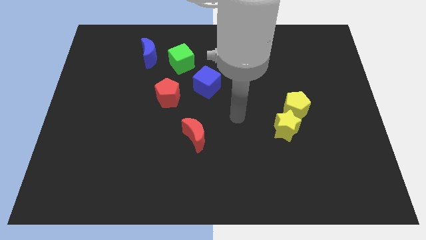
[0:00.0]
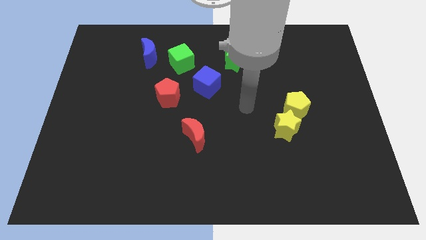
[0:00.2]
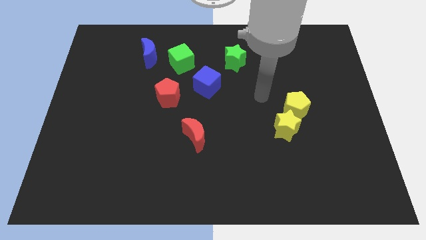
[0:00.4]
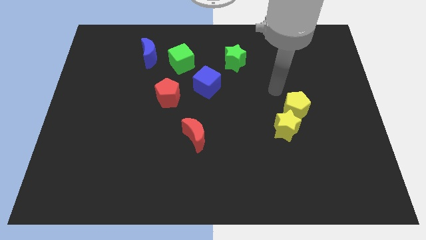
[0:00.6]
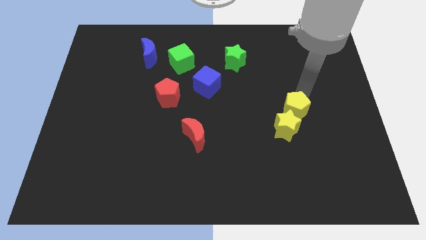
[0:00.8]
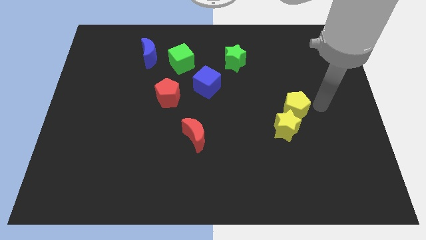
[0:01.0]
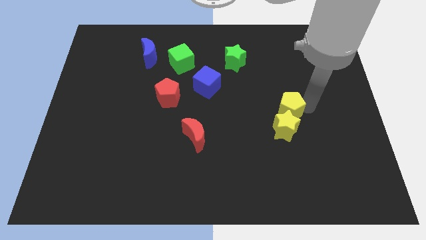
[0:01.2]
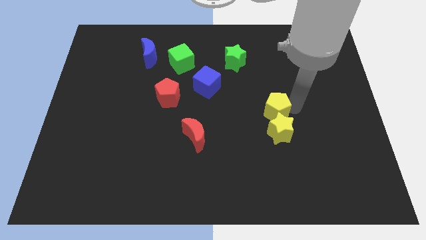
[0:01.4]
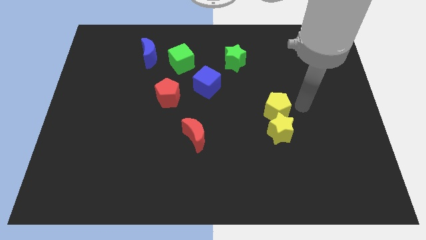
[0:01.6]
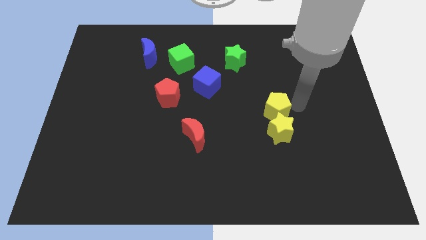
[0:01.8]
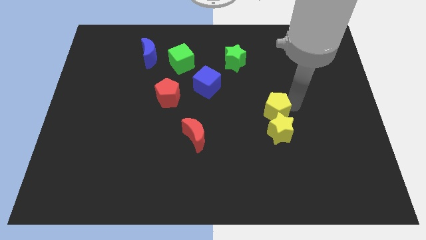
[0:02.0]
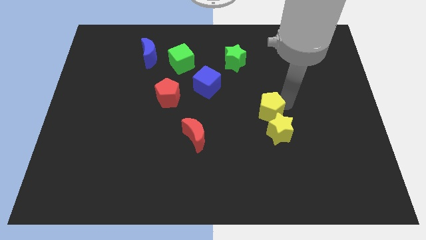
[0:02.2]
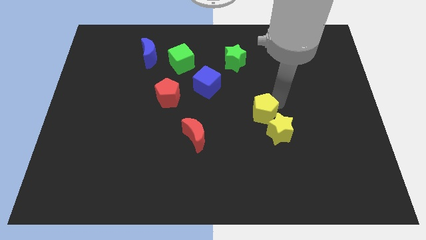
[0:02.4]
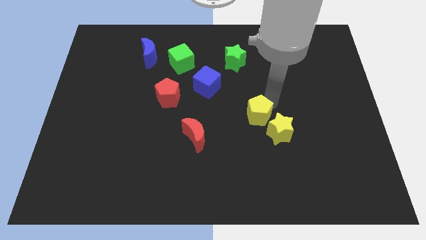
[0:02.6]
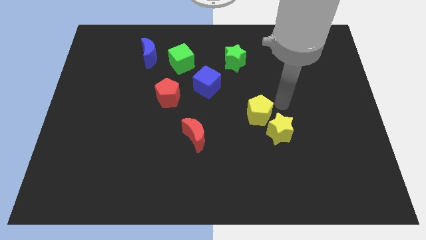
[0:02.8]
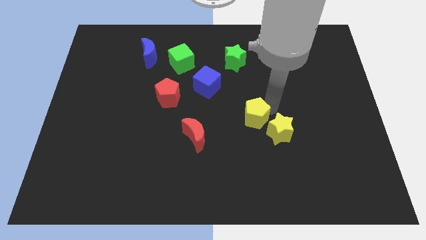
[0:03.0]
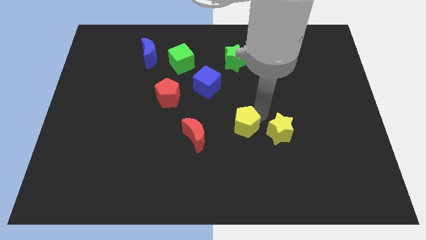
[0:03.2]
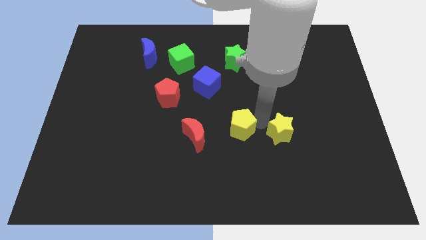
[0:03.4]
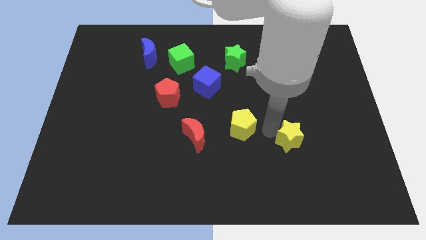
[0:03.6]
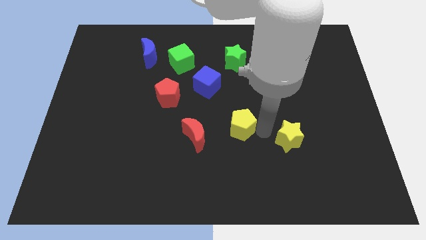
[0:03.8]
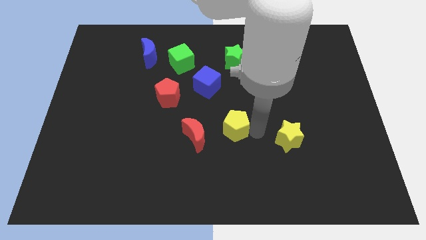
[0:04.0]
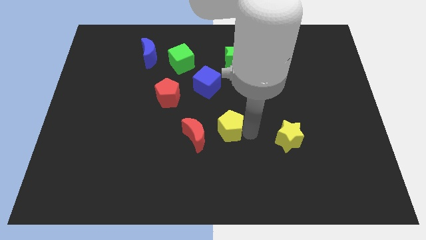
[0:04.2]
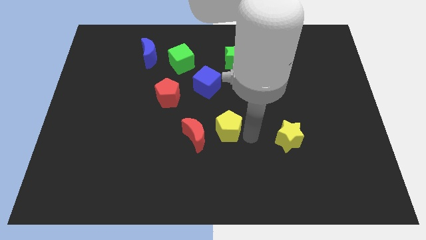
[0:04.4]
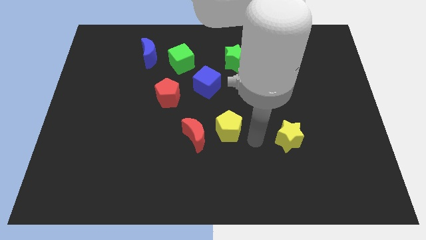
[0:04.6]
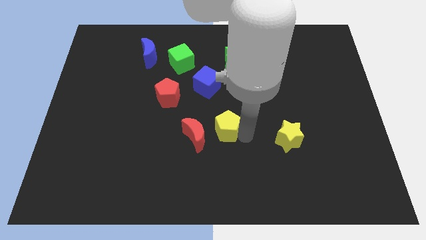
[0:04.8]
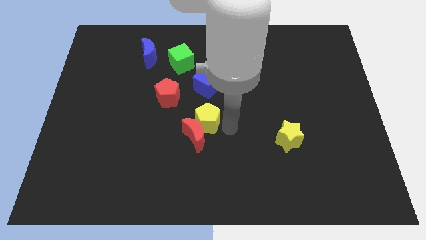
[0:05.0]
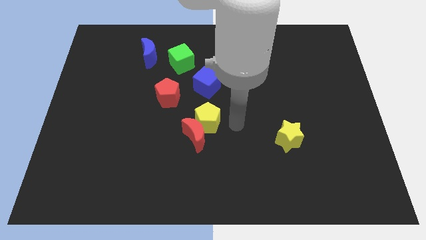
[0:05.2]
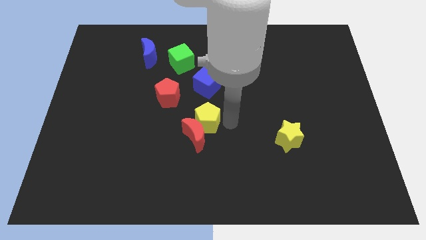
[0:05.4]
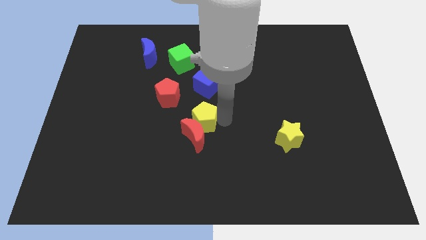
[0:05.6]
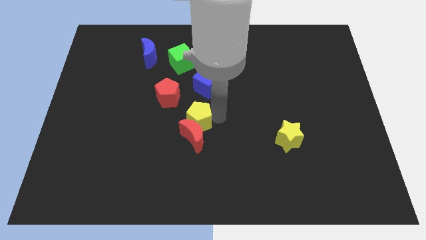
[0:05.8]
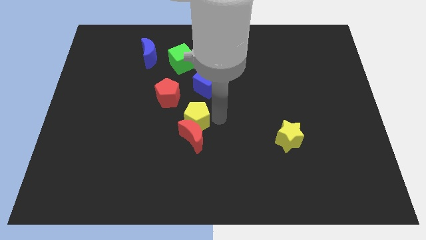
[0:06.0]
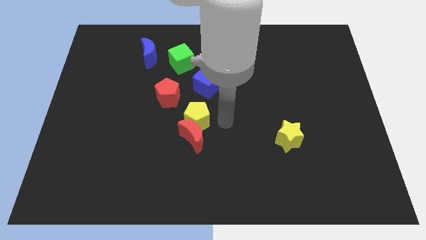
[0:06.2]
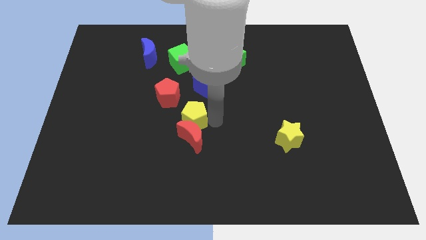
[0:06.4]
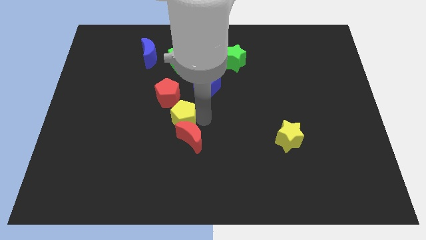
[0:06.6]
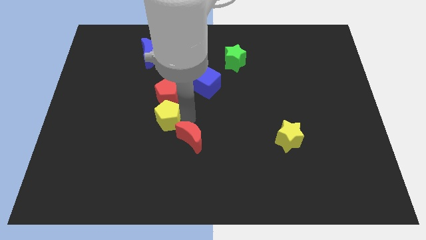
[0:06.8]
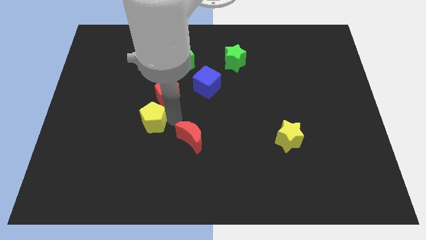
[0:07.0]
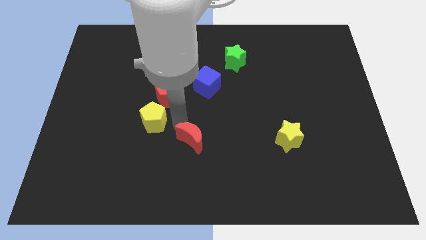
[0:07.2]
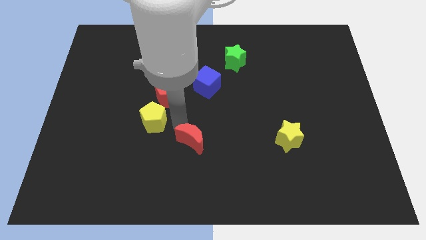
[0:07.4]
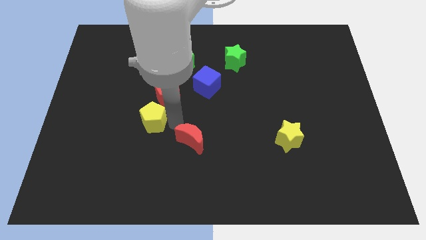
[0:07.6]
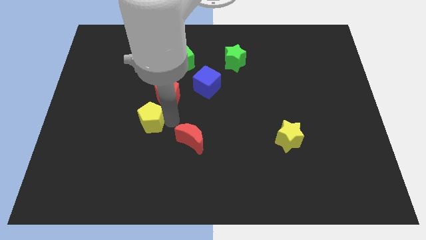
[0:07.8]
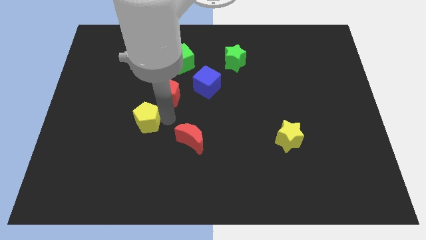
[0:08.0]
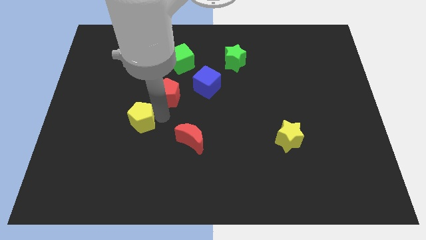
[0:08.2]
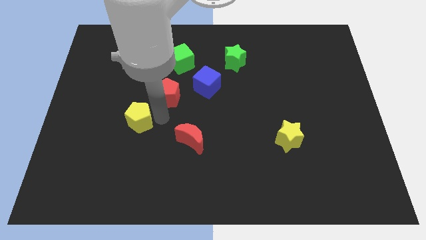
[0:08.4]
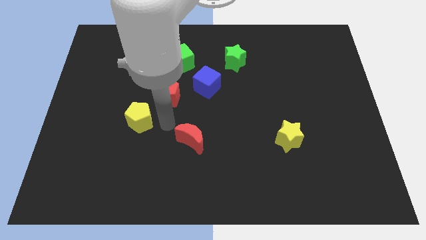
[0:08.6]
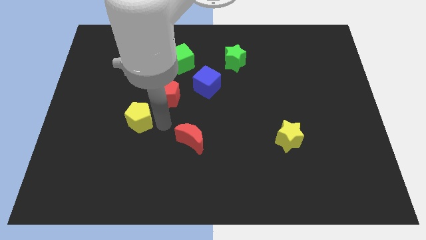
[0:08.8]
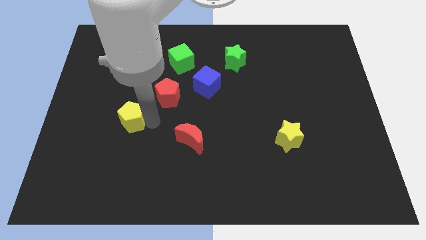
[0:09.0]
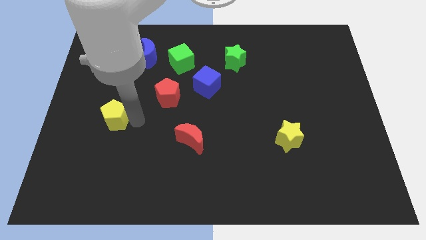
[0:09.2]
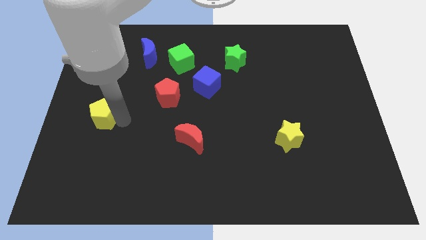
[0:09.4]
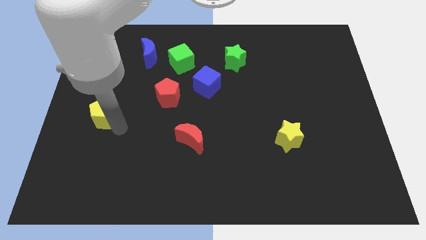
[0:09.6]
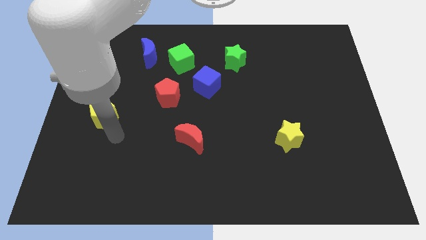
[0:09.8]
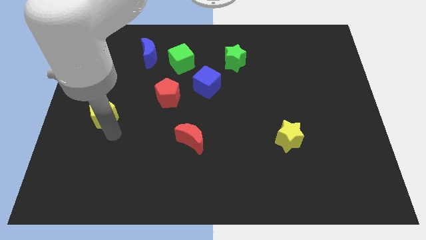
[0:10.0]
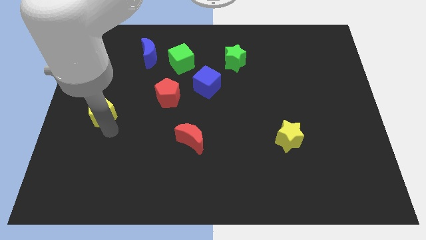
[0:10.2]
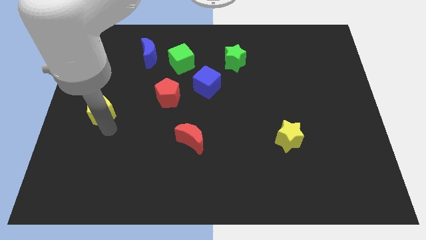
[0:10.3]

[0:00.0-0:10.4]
push the yellow pentagon to the center left

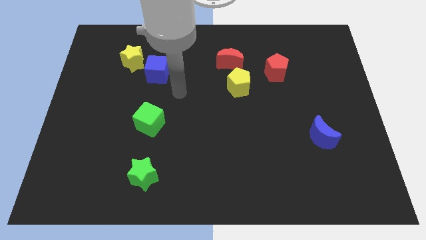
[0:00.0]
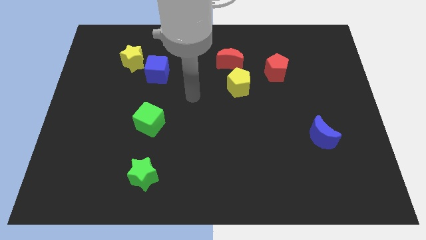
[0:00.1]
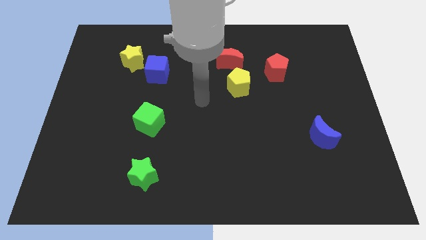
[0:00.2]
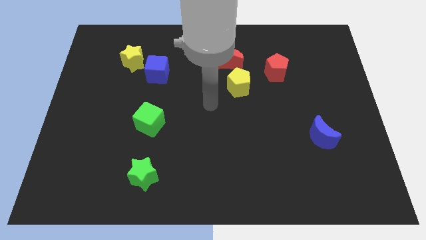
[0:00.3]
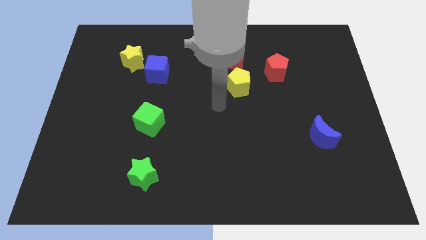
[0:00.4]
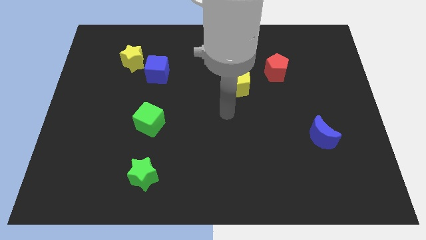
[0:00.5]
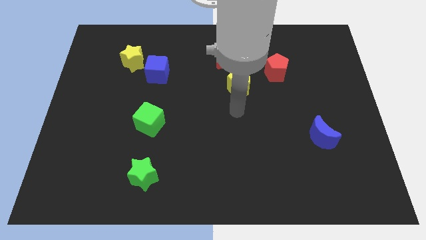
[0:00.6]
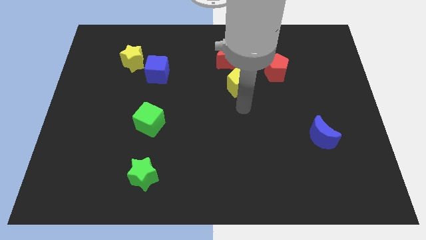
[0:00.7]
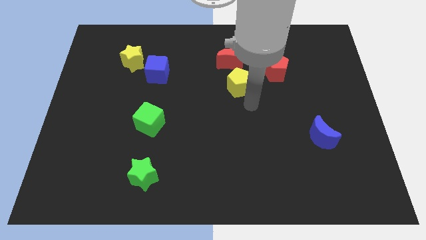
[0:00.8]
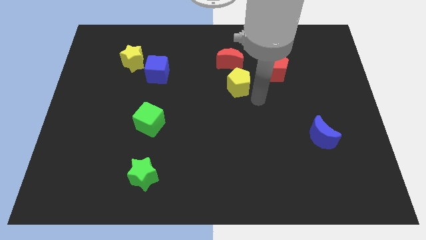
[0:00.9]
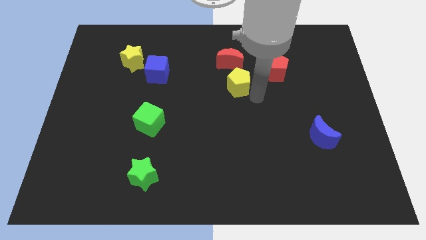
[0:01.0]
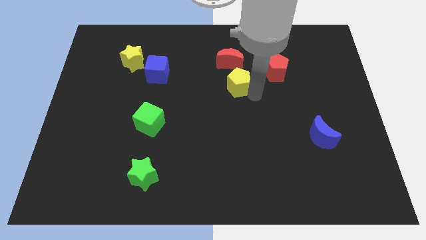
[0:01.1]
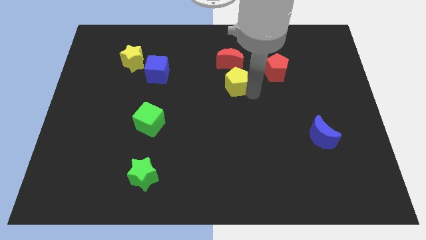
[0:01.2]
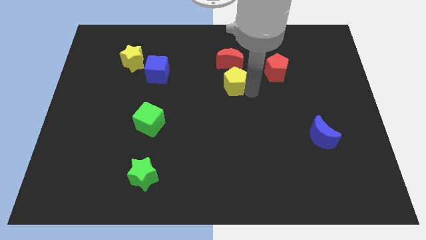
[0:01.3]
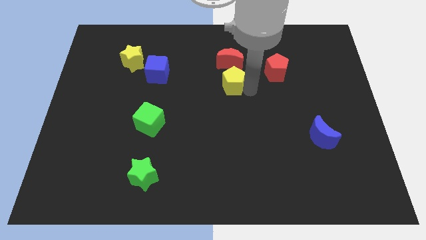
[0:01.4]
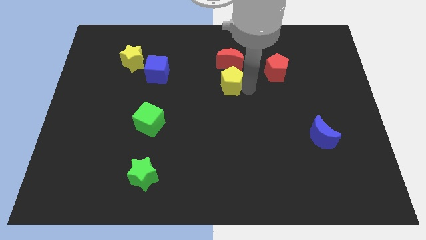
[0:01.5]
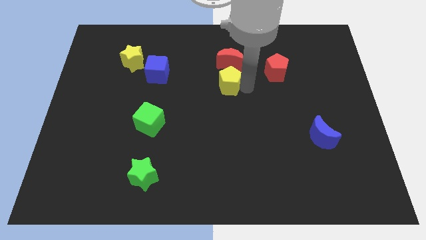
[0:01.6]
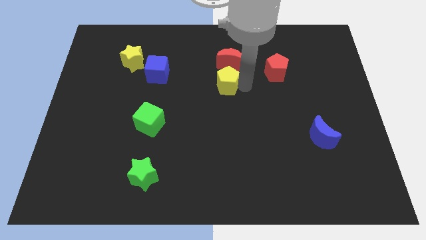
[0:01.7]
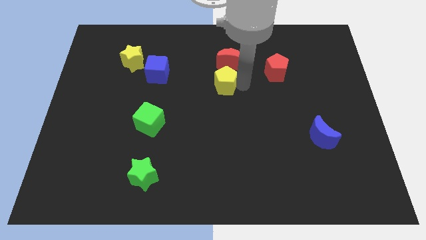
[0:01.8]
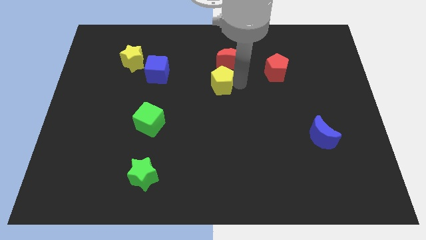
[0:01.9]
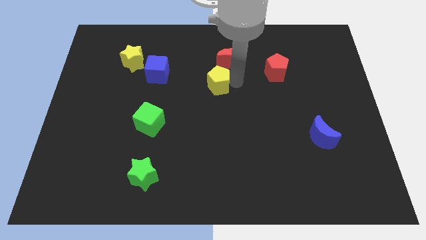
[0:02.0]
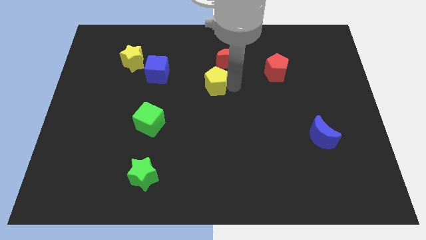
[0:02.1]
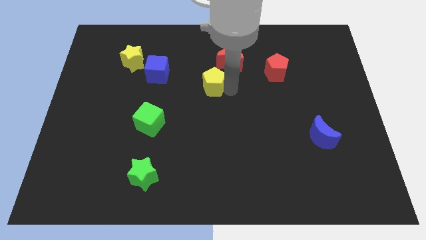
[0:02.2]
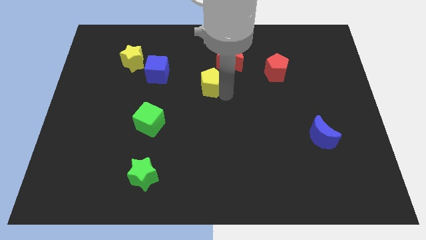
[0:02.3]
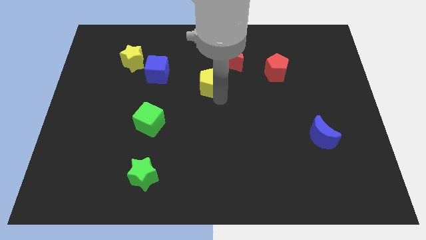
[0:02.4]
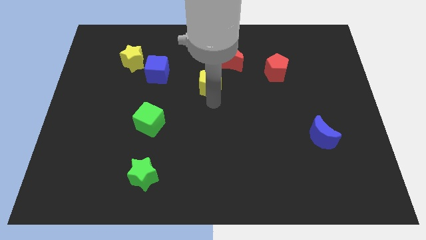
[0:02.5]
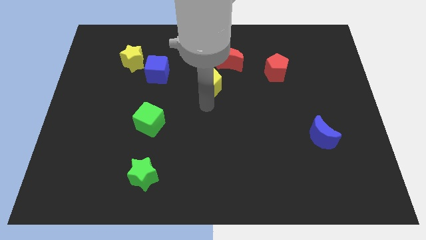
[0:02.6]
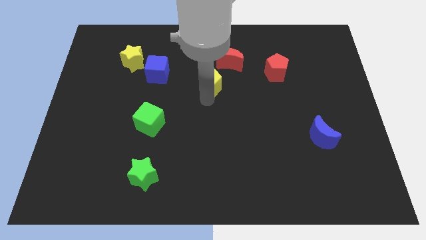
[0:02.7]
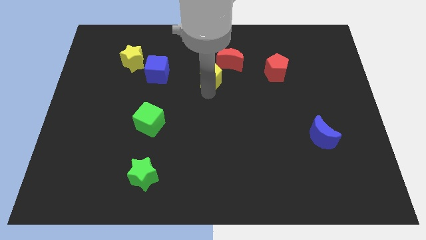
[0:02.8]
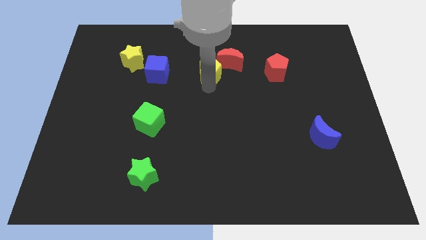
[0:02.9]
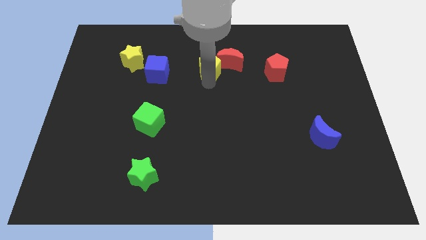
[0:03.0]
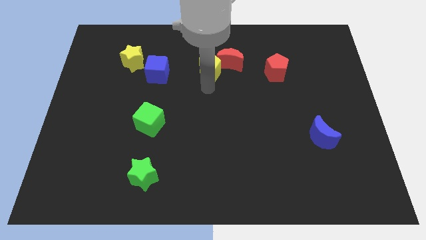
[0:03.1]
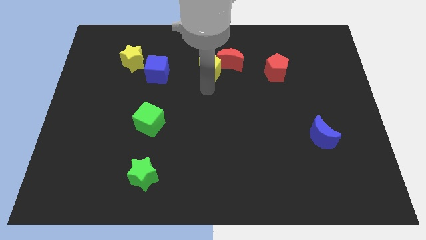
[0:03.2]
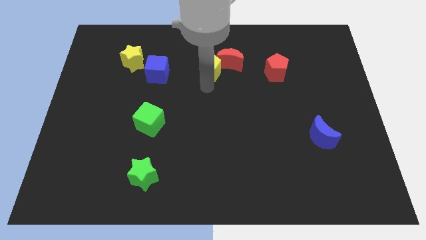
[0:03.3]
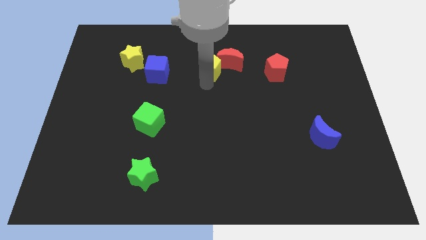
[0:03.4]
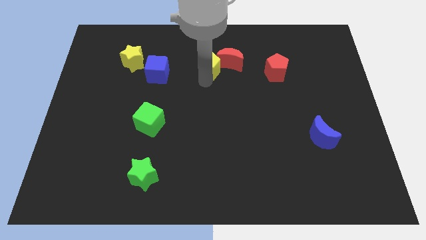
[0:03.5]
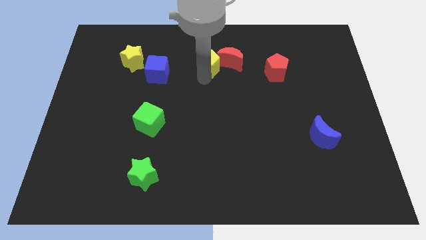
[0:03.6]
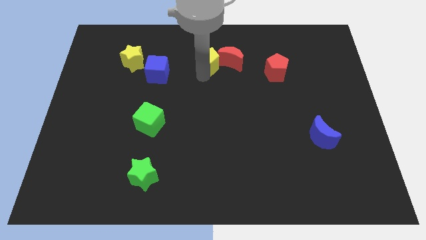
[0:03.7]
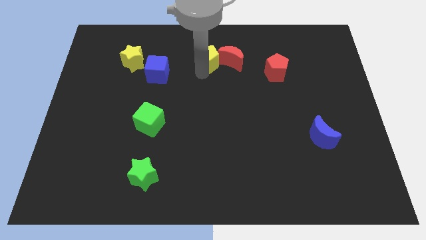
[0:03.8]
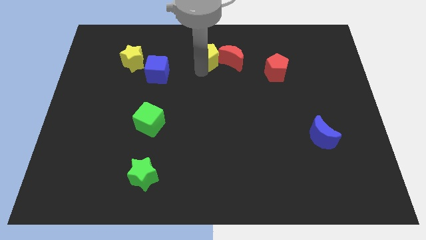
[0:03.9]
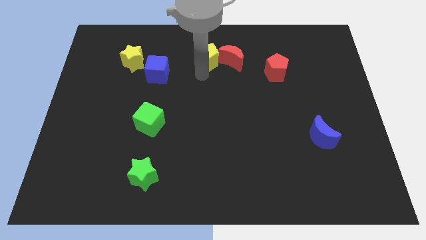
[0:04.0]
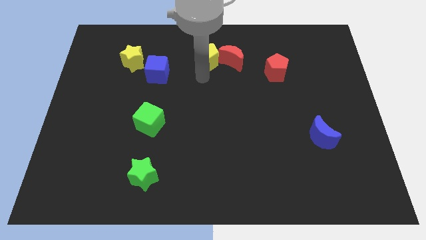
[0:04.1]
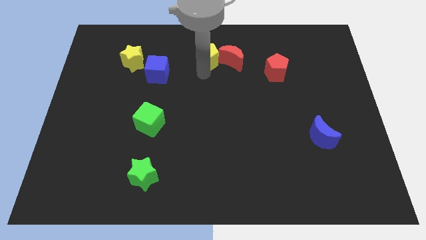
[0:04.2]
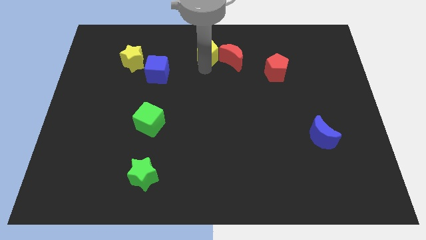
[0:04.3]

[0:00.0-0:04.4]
slide the yellow pentagon to the top side
